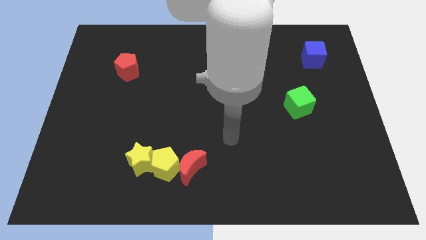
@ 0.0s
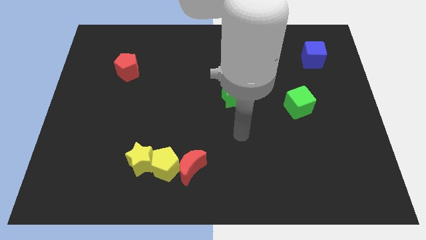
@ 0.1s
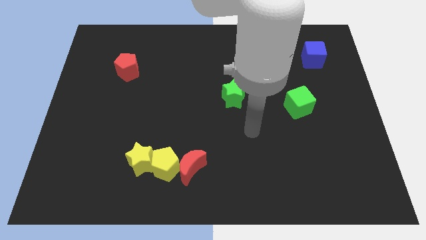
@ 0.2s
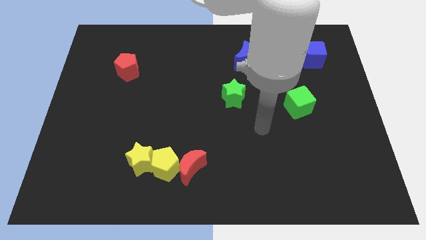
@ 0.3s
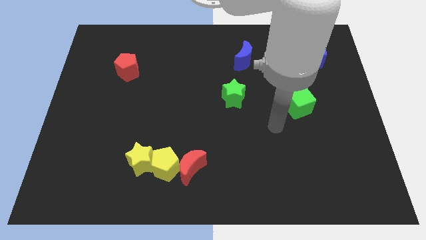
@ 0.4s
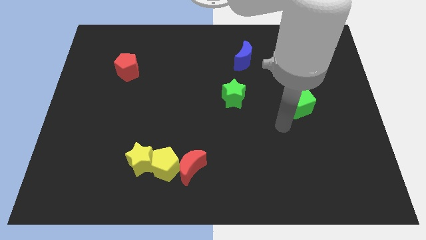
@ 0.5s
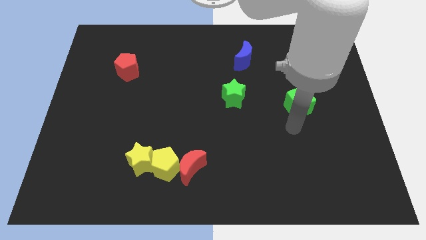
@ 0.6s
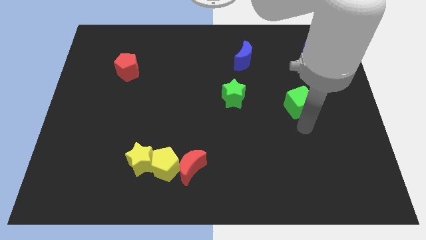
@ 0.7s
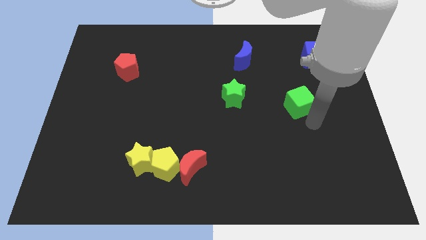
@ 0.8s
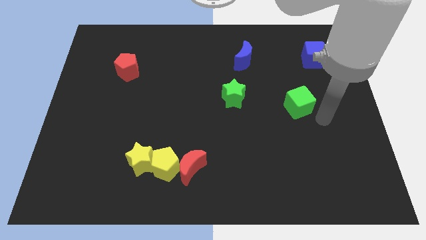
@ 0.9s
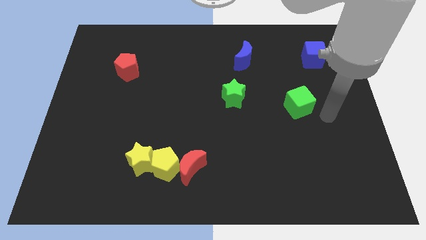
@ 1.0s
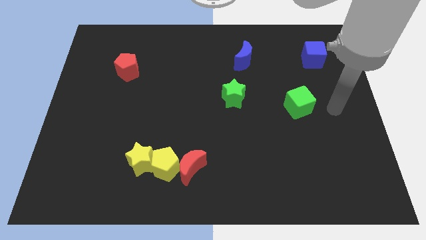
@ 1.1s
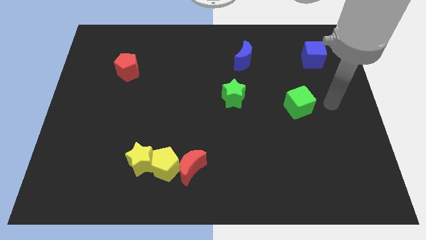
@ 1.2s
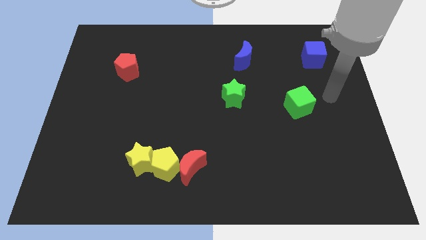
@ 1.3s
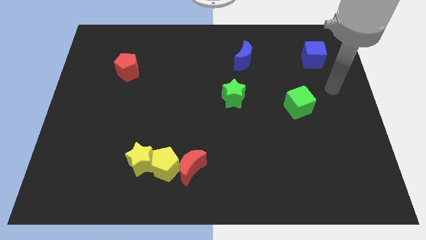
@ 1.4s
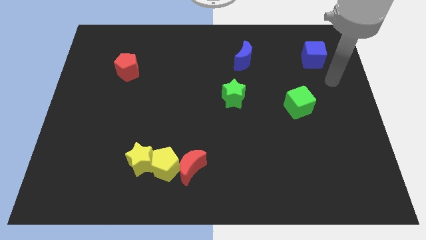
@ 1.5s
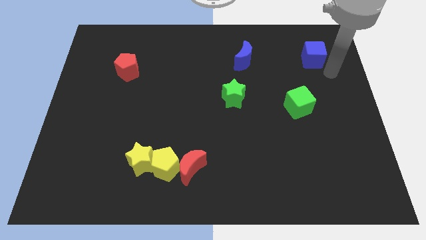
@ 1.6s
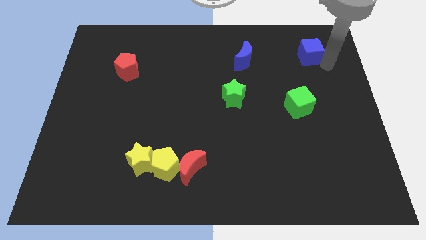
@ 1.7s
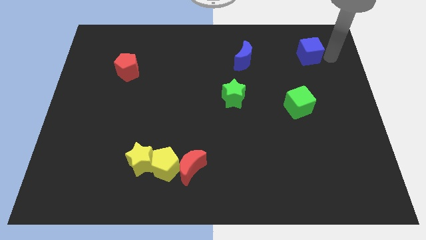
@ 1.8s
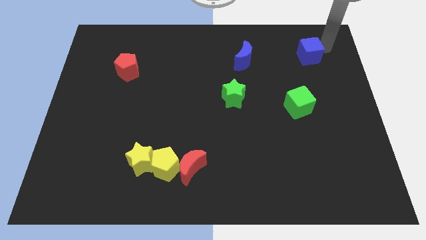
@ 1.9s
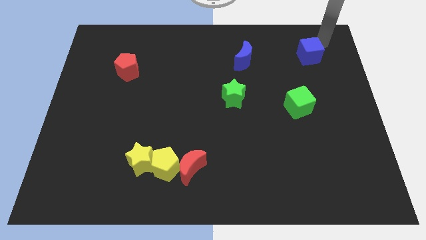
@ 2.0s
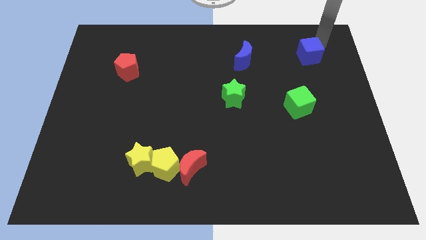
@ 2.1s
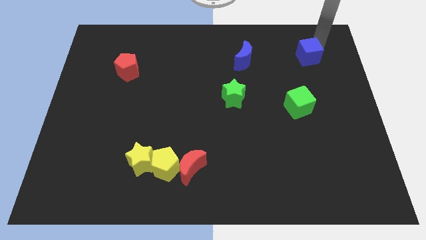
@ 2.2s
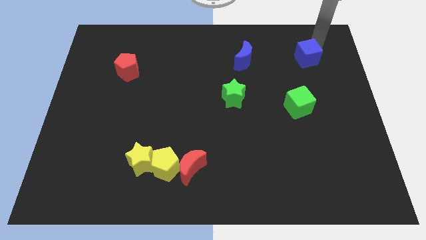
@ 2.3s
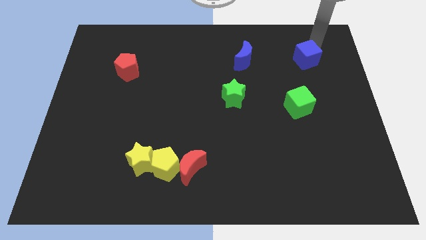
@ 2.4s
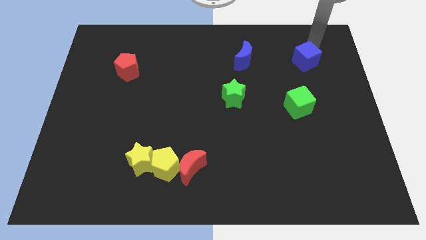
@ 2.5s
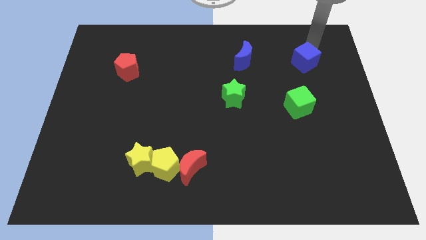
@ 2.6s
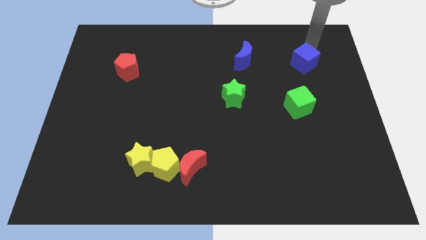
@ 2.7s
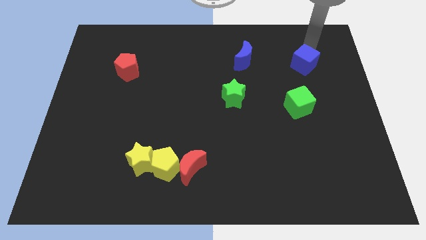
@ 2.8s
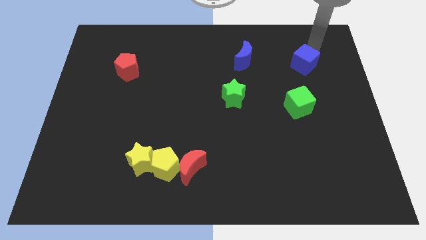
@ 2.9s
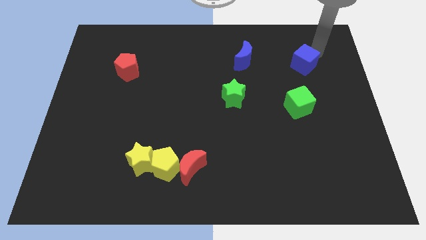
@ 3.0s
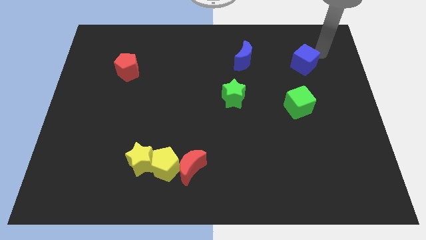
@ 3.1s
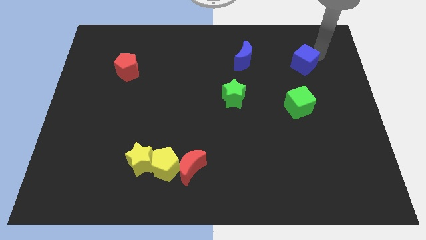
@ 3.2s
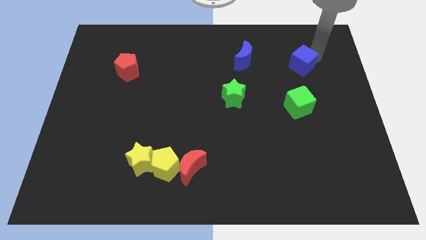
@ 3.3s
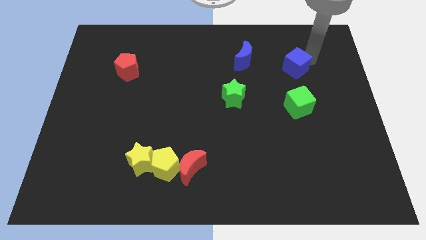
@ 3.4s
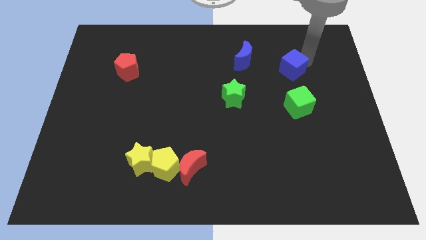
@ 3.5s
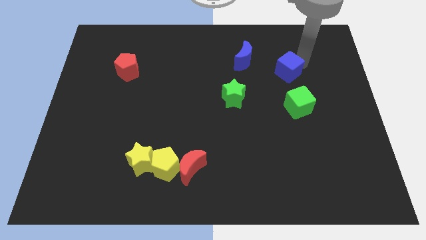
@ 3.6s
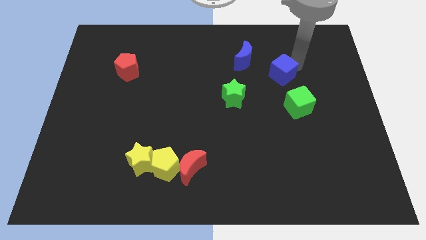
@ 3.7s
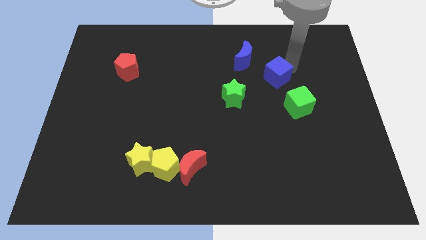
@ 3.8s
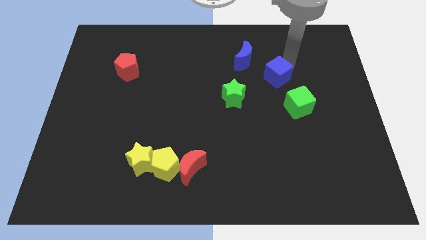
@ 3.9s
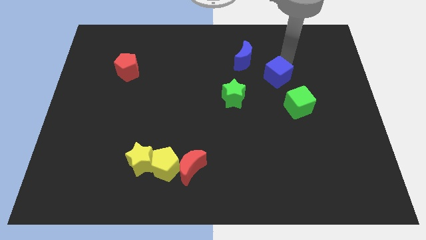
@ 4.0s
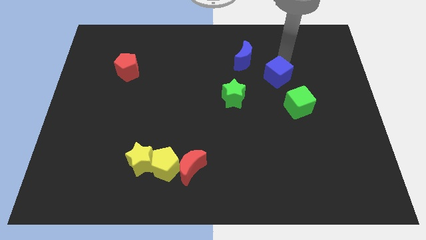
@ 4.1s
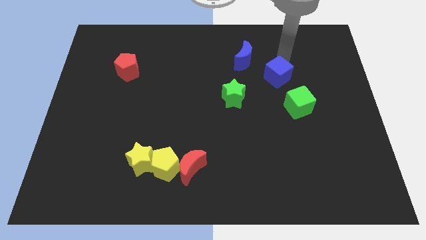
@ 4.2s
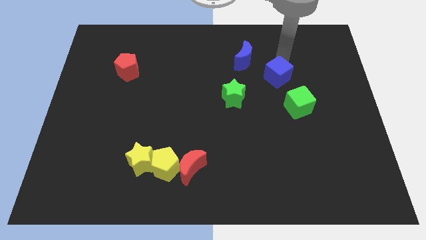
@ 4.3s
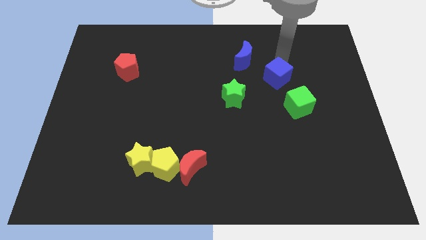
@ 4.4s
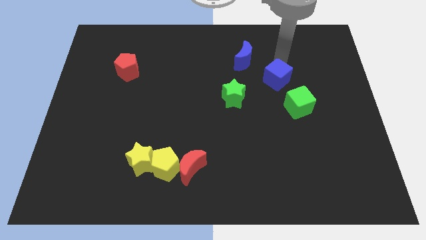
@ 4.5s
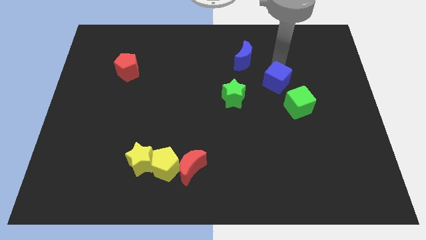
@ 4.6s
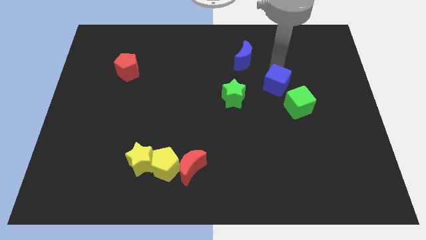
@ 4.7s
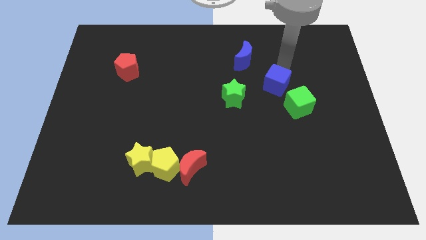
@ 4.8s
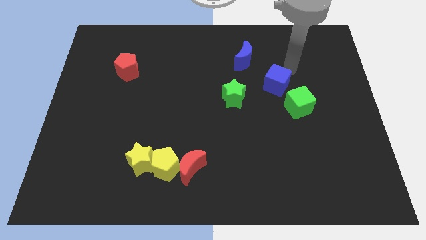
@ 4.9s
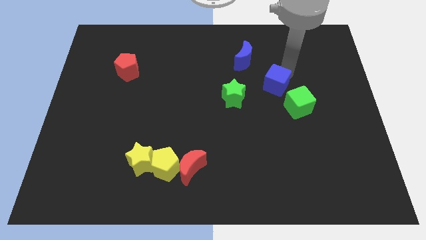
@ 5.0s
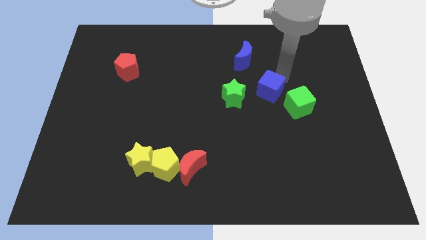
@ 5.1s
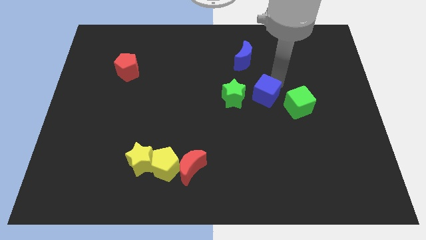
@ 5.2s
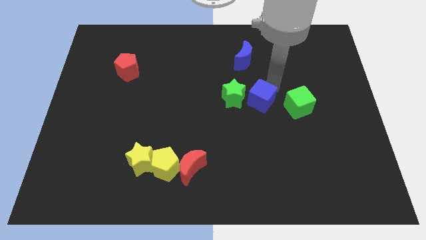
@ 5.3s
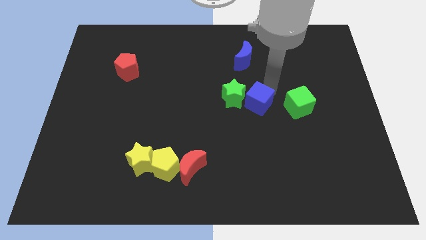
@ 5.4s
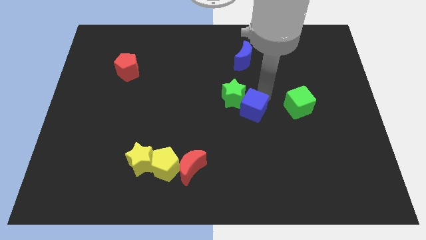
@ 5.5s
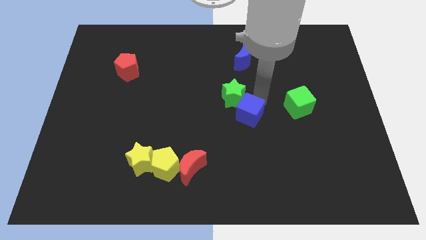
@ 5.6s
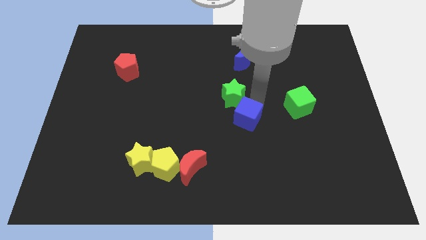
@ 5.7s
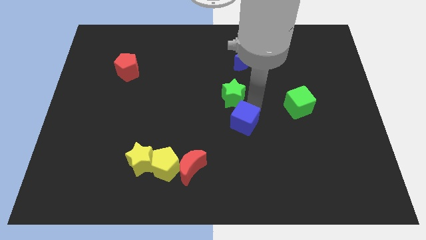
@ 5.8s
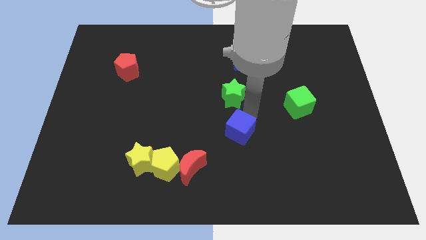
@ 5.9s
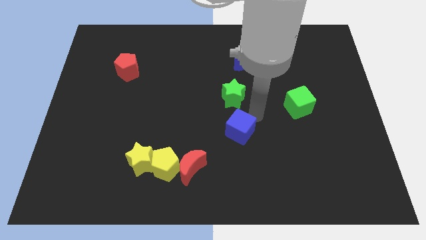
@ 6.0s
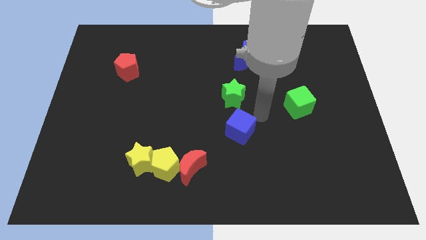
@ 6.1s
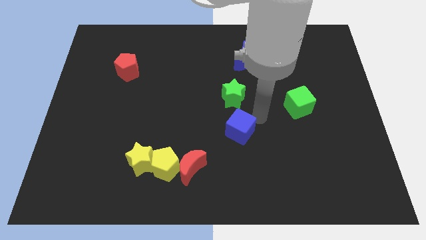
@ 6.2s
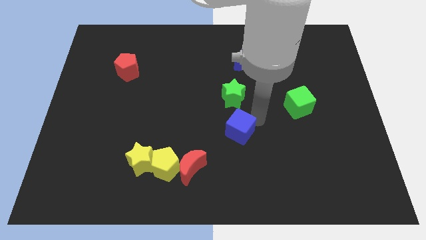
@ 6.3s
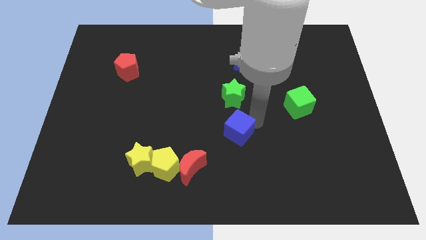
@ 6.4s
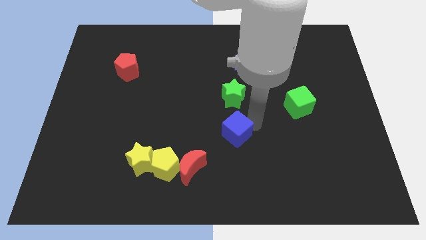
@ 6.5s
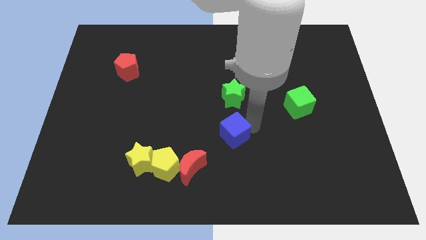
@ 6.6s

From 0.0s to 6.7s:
slide the blue cube diagonally up and to the right of the red moon
